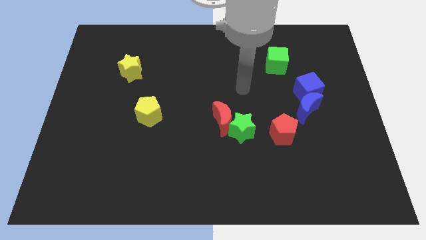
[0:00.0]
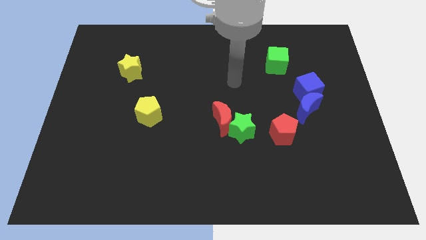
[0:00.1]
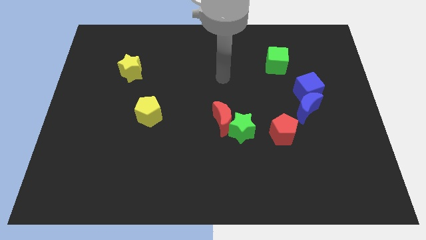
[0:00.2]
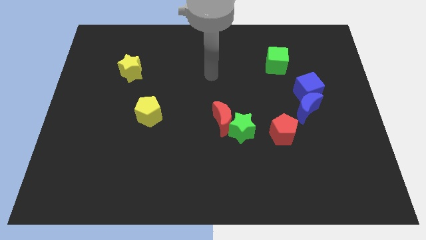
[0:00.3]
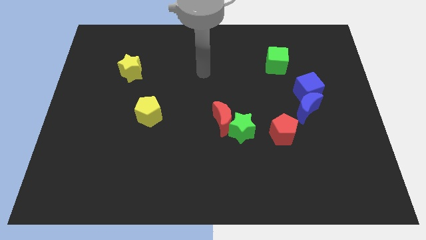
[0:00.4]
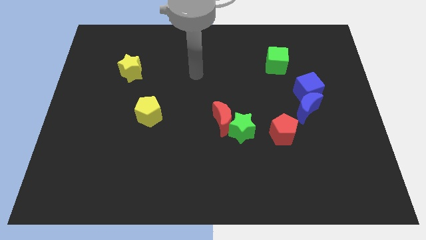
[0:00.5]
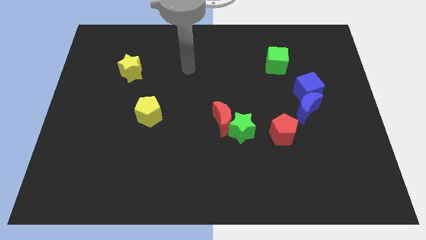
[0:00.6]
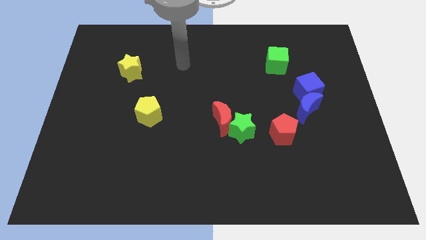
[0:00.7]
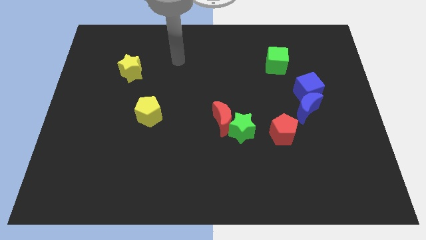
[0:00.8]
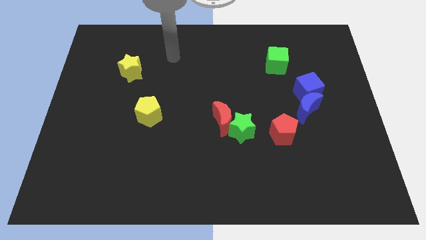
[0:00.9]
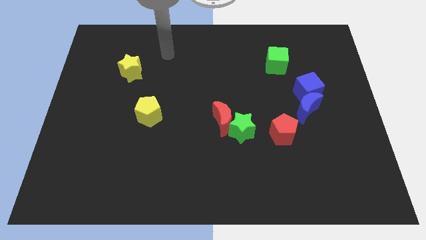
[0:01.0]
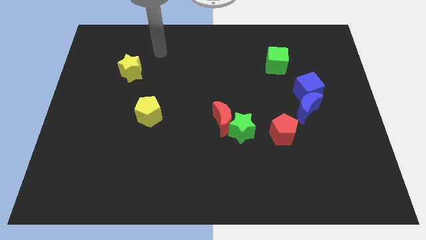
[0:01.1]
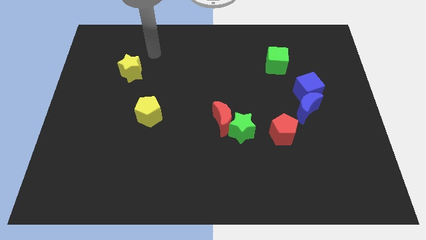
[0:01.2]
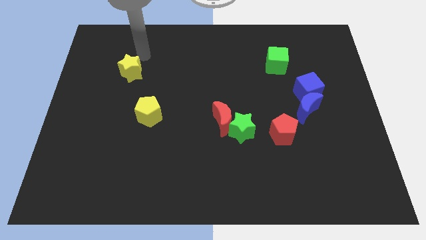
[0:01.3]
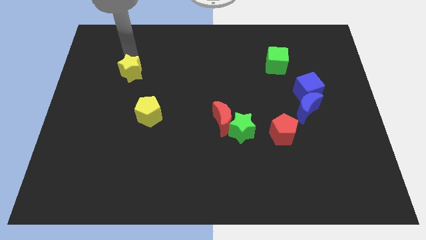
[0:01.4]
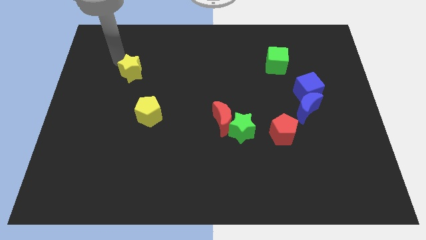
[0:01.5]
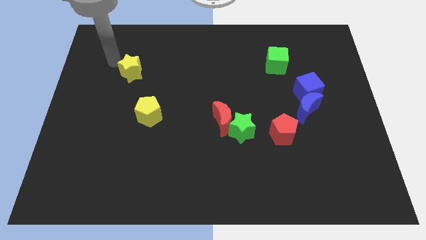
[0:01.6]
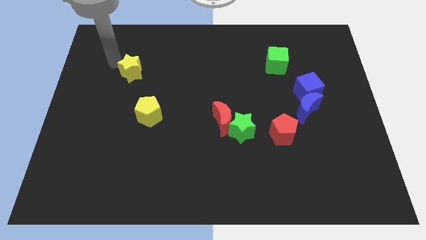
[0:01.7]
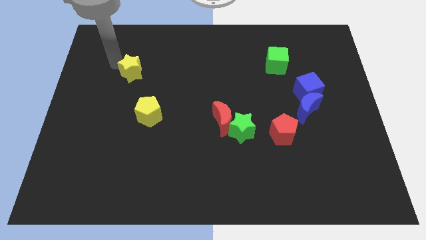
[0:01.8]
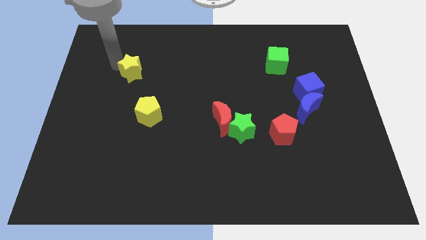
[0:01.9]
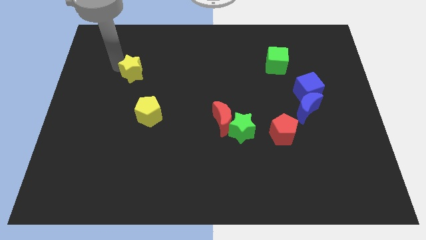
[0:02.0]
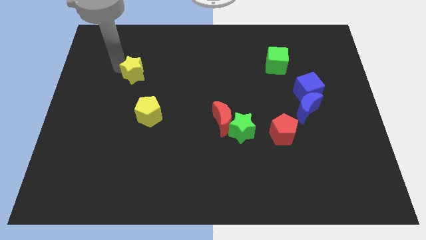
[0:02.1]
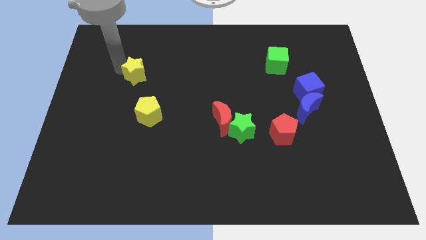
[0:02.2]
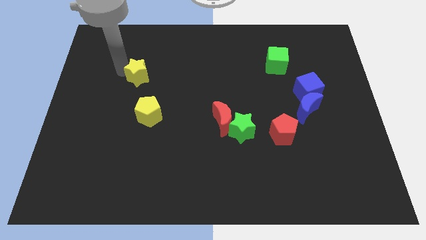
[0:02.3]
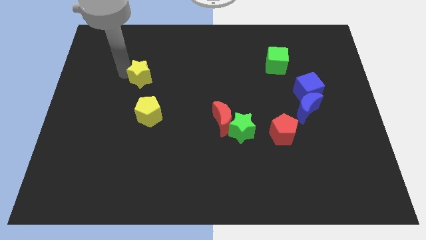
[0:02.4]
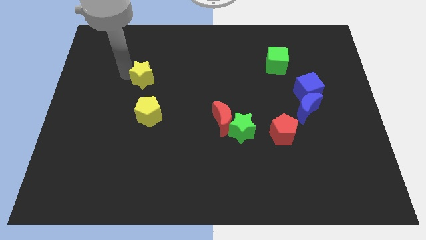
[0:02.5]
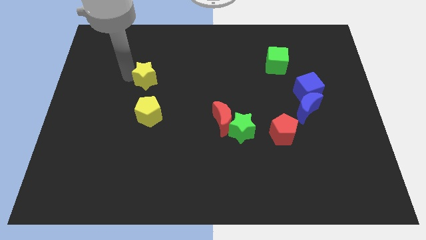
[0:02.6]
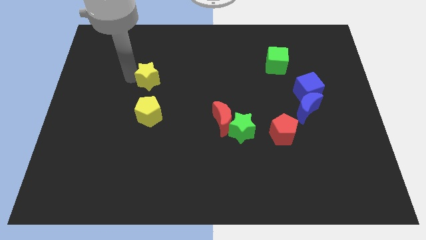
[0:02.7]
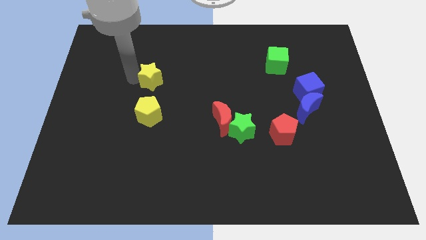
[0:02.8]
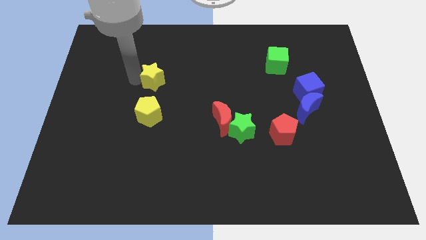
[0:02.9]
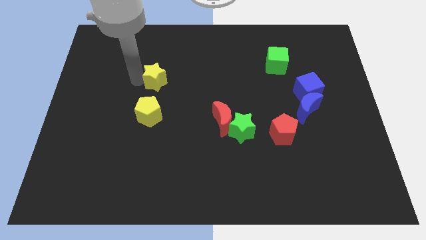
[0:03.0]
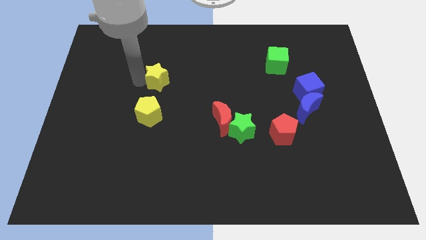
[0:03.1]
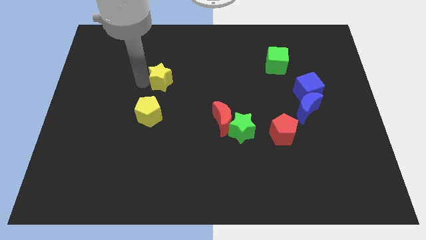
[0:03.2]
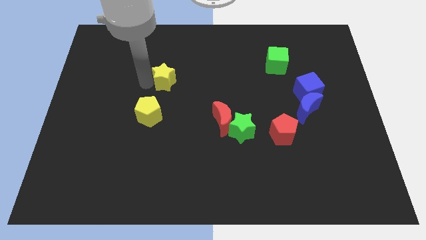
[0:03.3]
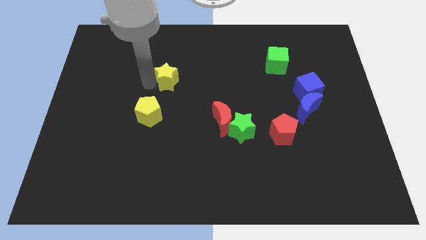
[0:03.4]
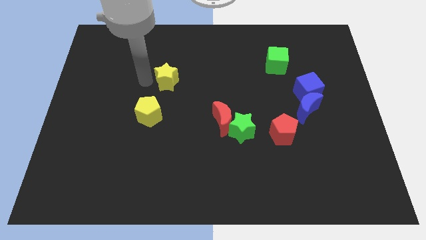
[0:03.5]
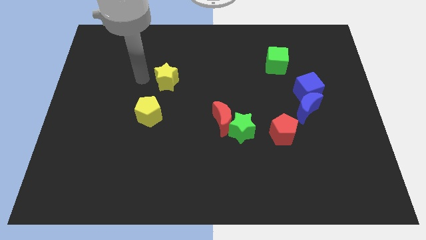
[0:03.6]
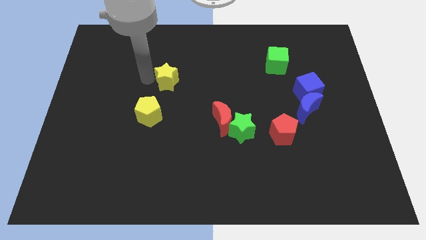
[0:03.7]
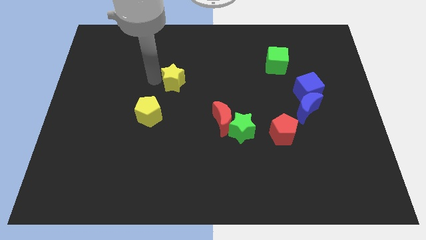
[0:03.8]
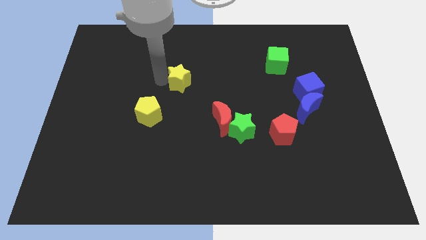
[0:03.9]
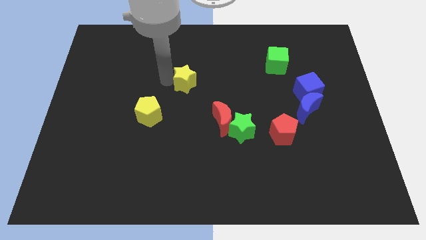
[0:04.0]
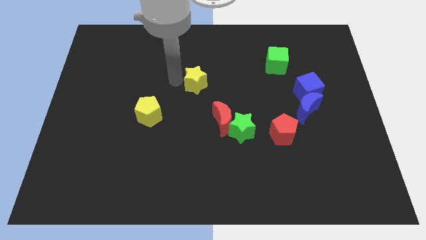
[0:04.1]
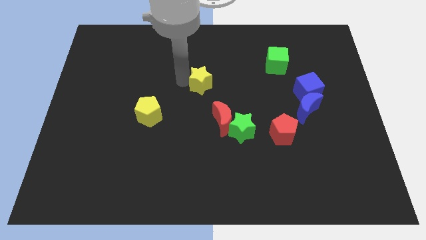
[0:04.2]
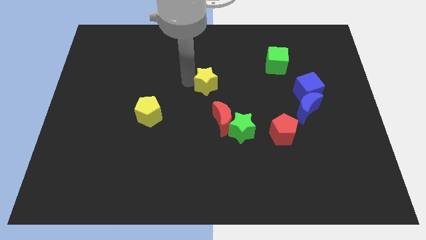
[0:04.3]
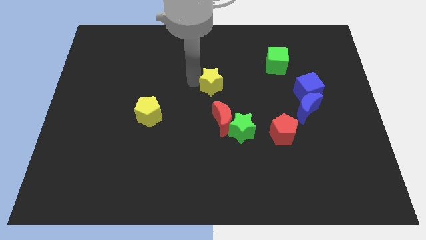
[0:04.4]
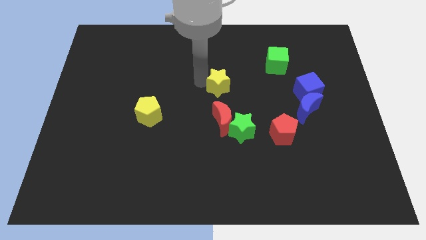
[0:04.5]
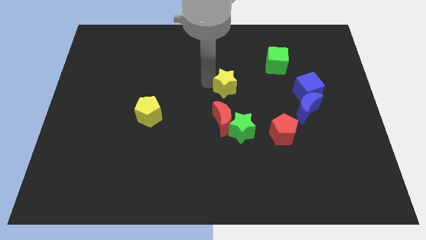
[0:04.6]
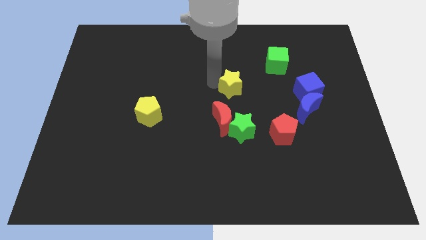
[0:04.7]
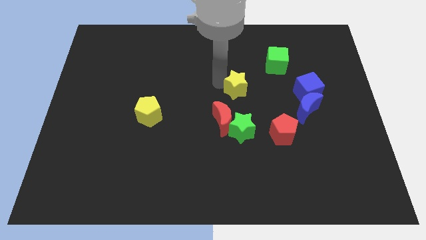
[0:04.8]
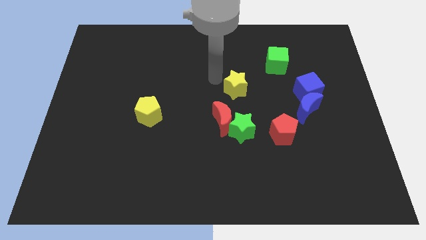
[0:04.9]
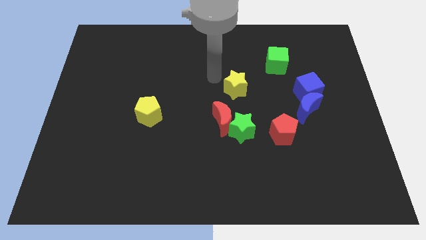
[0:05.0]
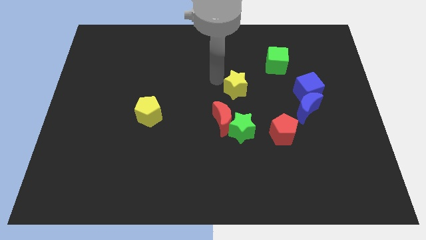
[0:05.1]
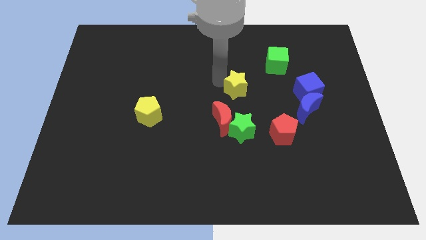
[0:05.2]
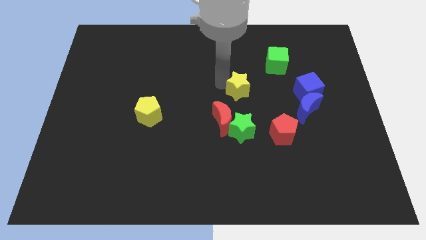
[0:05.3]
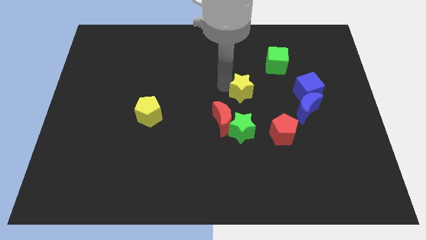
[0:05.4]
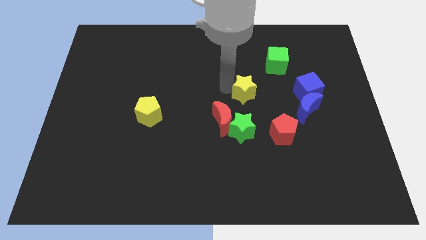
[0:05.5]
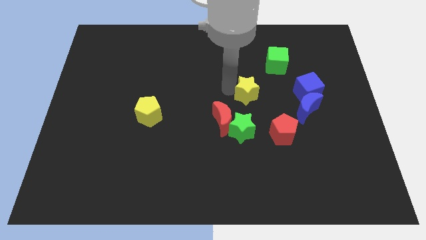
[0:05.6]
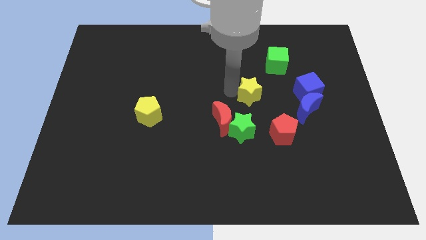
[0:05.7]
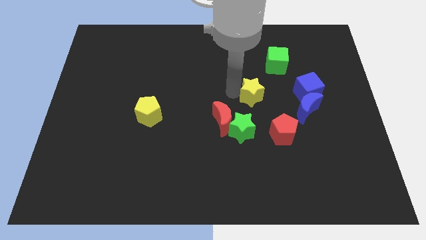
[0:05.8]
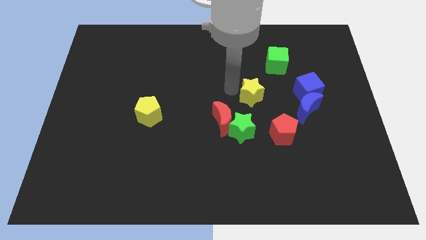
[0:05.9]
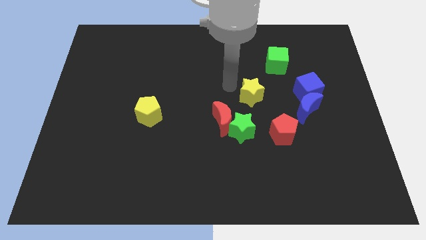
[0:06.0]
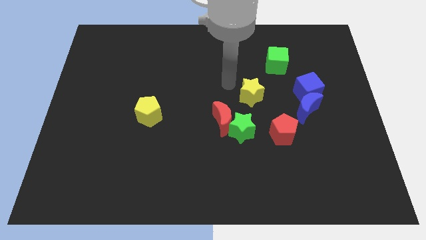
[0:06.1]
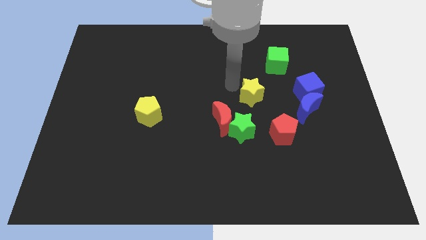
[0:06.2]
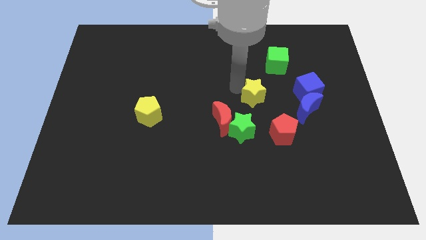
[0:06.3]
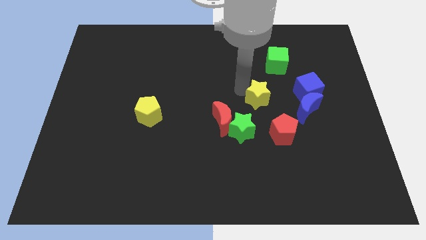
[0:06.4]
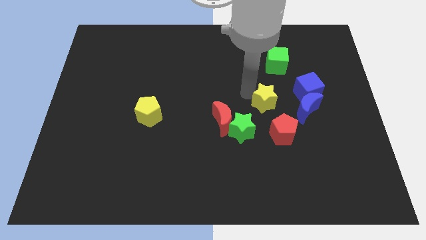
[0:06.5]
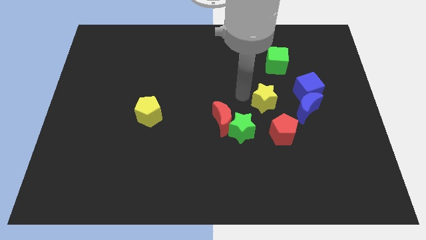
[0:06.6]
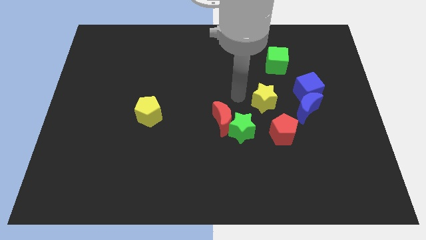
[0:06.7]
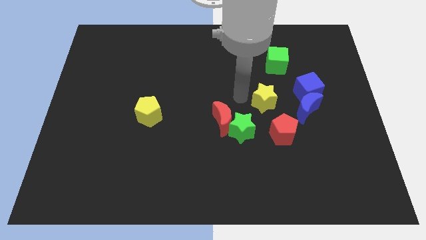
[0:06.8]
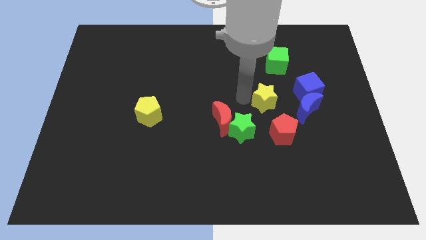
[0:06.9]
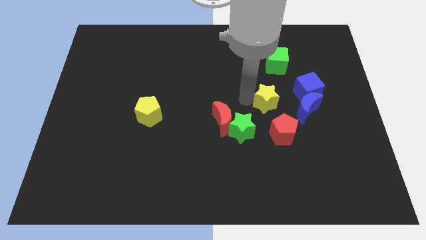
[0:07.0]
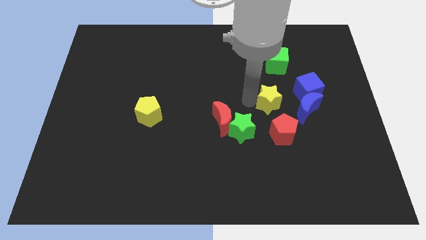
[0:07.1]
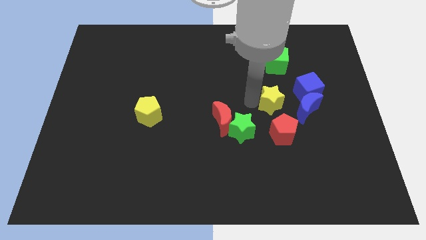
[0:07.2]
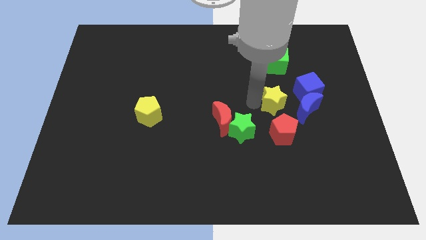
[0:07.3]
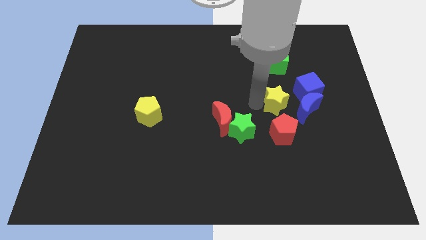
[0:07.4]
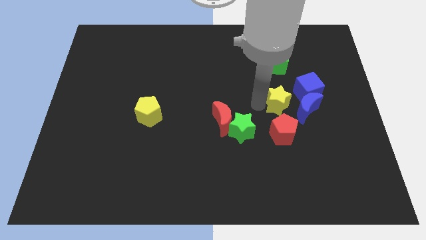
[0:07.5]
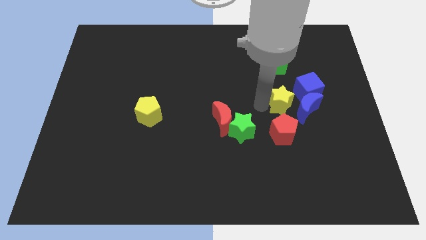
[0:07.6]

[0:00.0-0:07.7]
push the yellow star towards the blue moon
